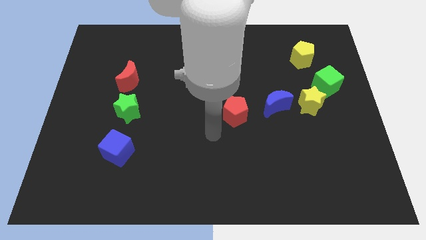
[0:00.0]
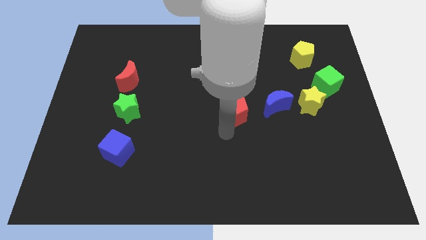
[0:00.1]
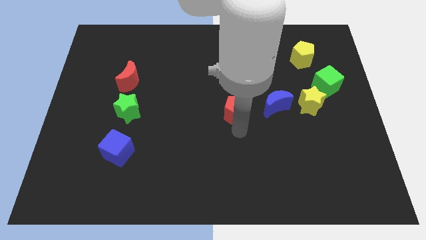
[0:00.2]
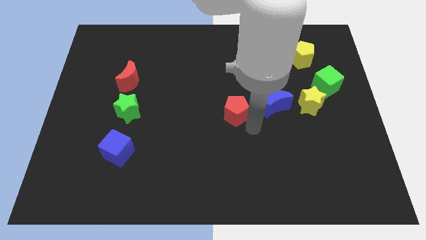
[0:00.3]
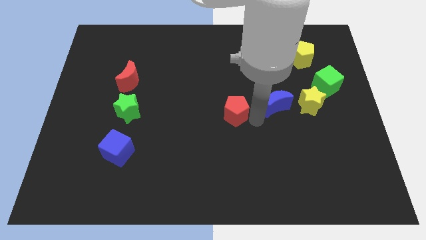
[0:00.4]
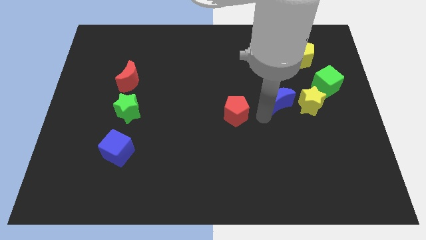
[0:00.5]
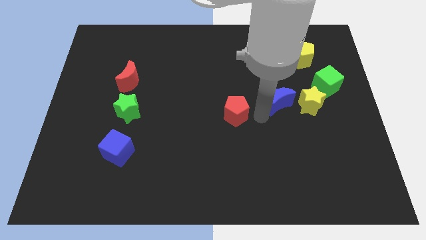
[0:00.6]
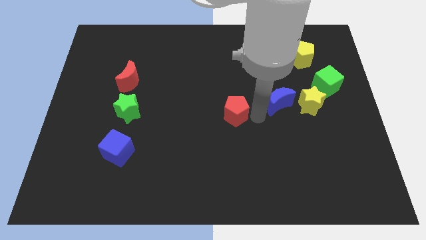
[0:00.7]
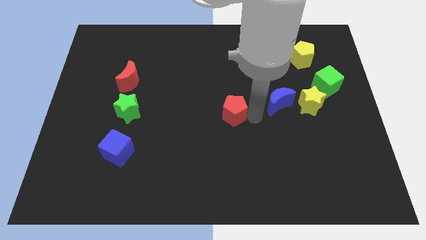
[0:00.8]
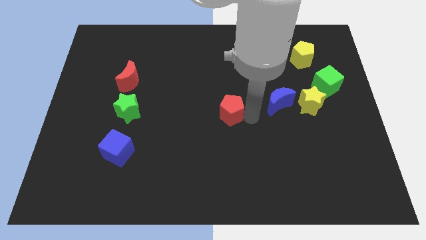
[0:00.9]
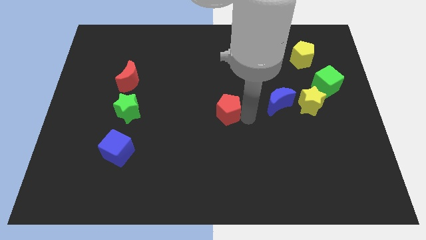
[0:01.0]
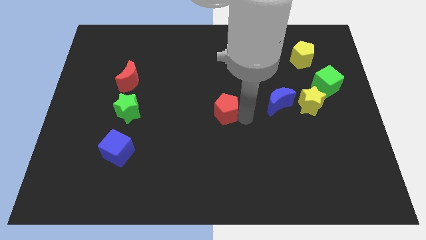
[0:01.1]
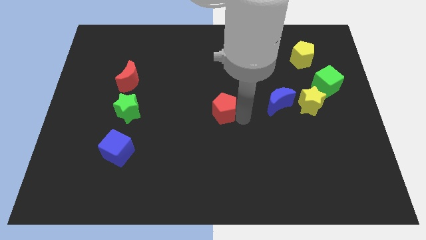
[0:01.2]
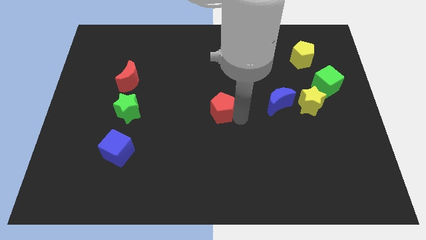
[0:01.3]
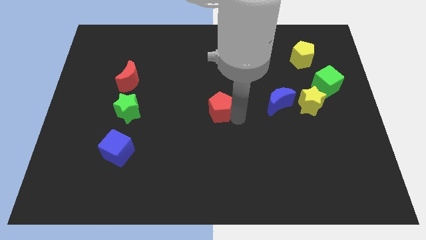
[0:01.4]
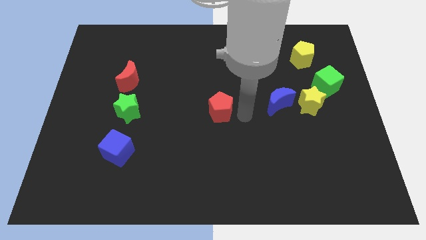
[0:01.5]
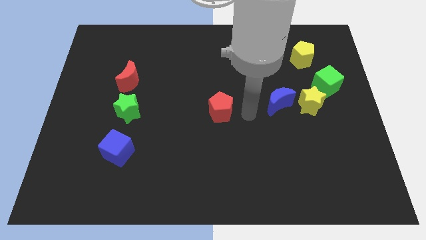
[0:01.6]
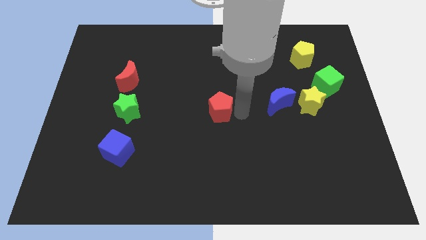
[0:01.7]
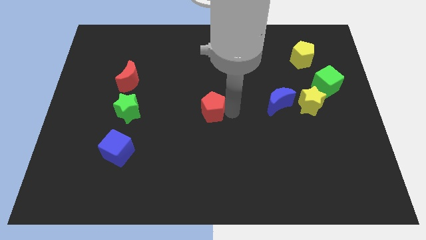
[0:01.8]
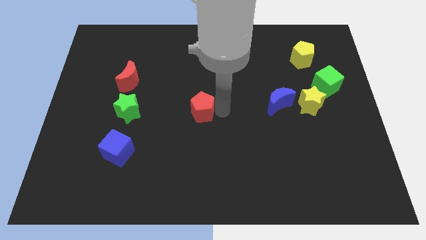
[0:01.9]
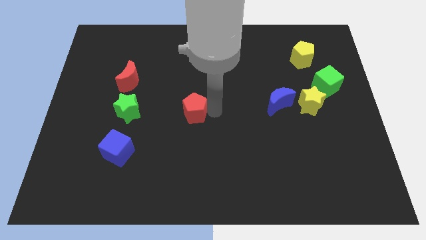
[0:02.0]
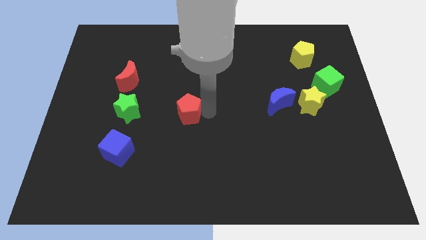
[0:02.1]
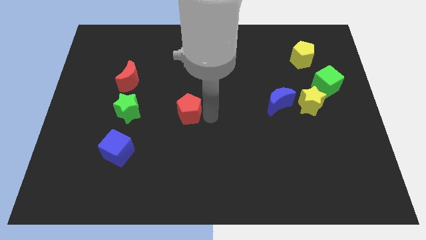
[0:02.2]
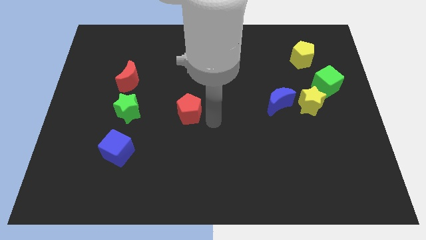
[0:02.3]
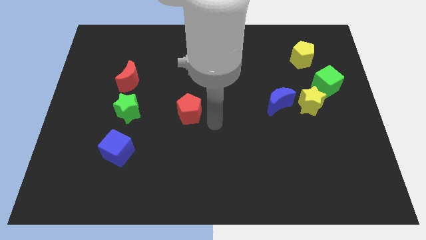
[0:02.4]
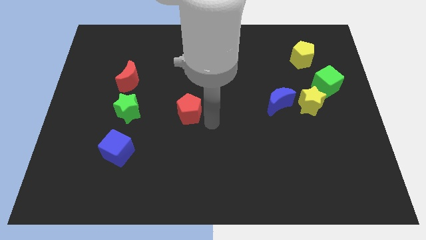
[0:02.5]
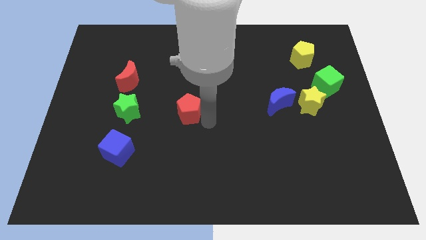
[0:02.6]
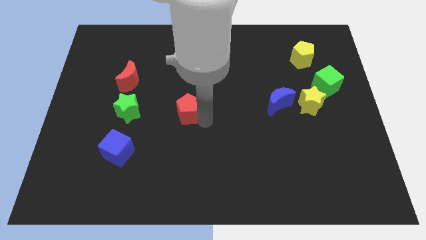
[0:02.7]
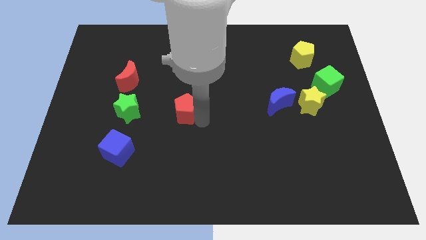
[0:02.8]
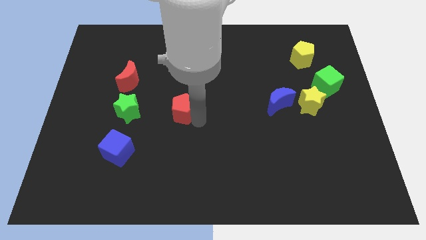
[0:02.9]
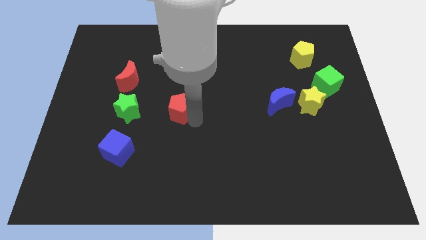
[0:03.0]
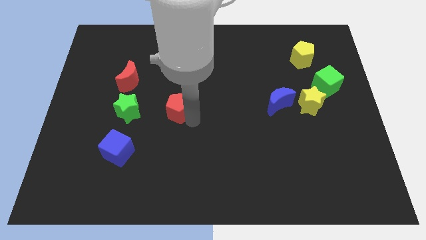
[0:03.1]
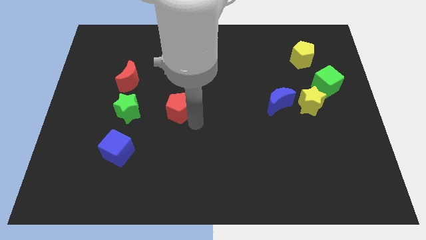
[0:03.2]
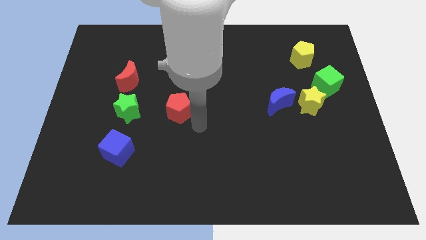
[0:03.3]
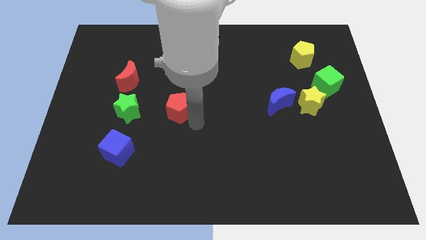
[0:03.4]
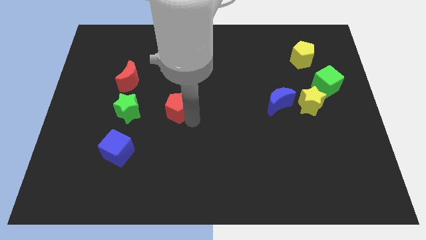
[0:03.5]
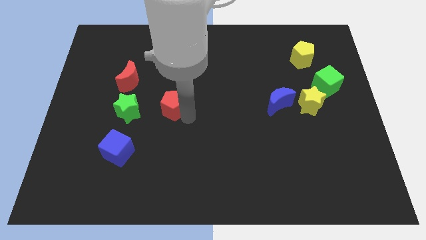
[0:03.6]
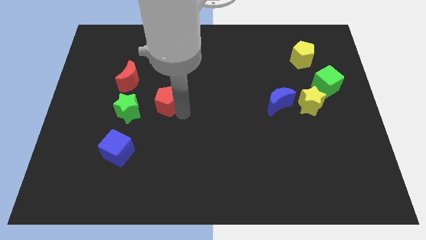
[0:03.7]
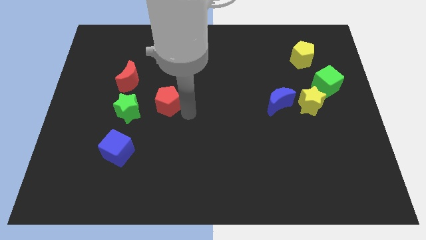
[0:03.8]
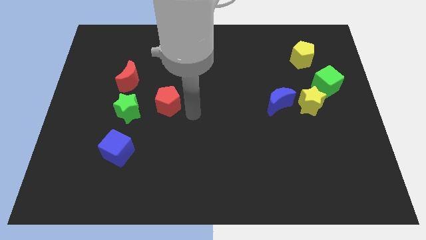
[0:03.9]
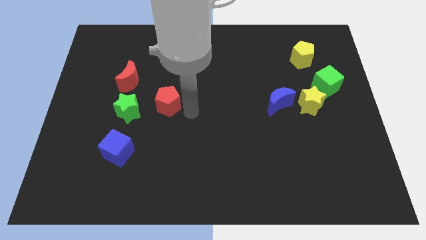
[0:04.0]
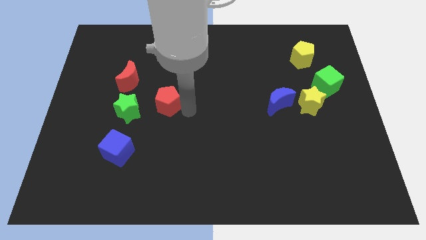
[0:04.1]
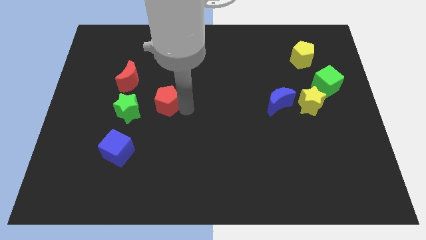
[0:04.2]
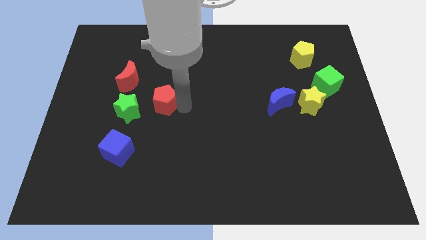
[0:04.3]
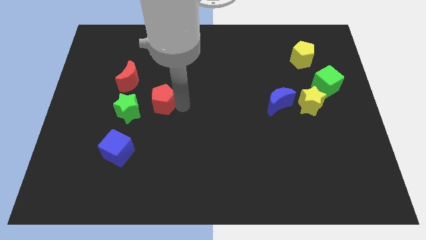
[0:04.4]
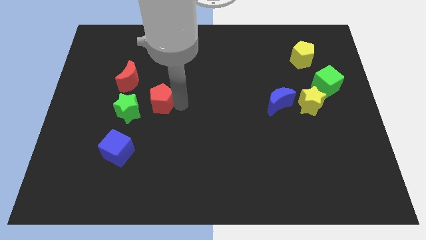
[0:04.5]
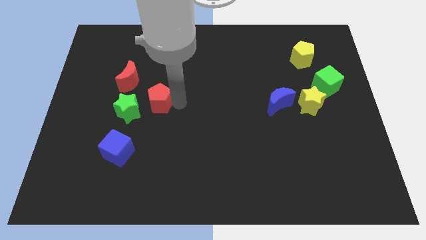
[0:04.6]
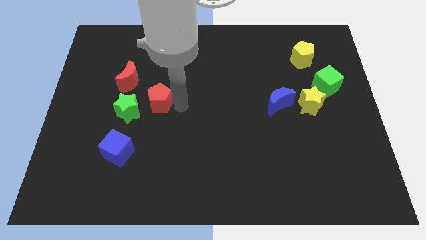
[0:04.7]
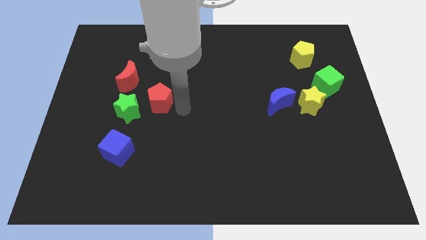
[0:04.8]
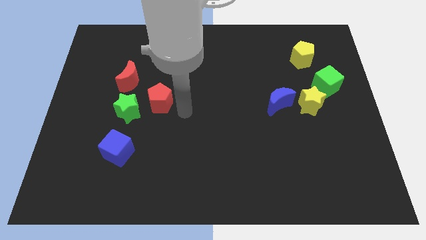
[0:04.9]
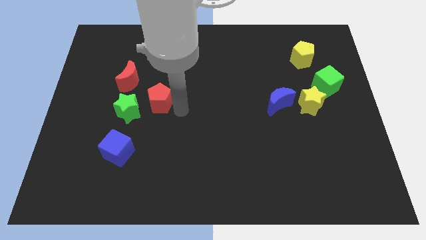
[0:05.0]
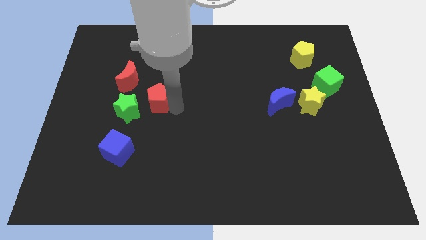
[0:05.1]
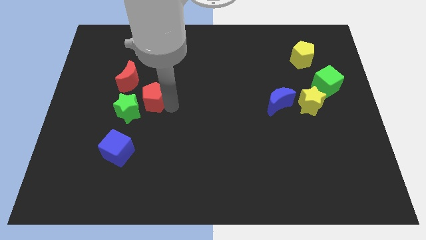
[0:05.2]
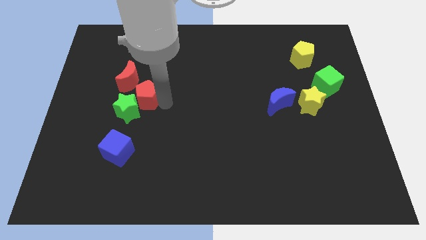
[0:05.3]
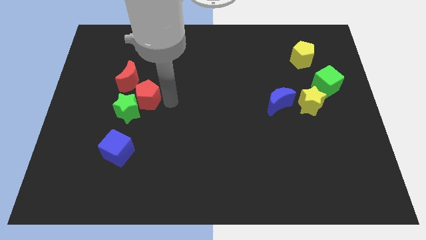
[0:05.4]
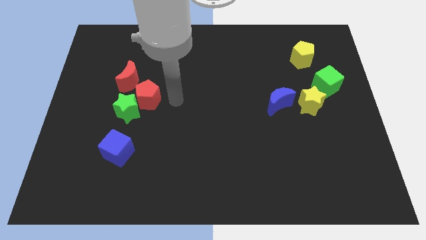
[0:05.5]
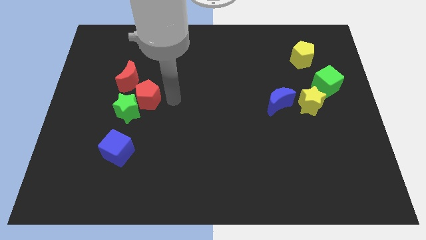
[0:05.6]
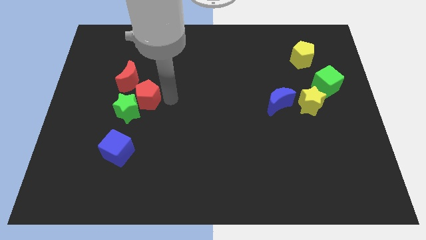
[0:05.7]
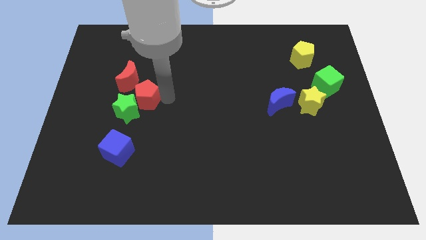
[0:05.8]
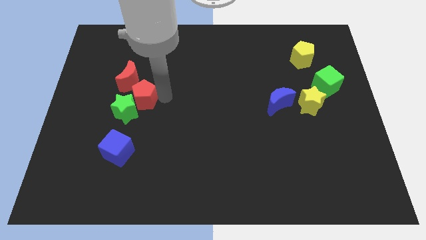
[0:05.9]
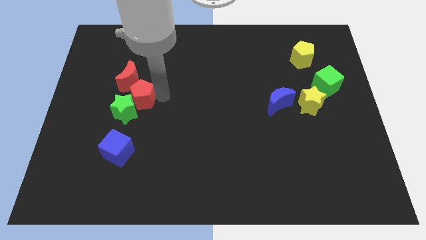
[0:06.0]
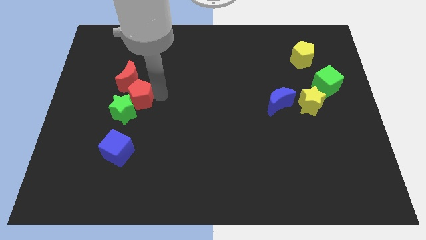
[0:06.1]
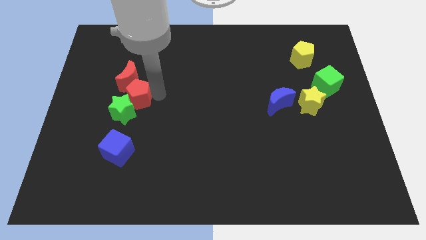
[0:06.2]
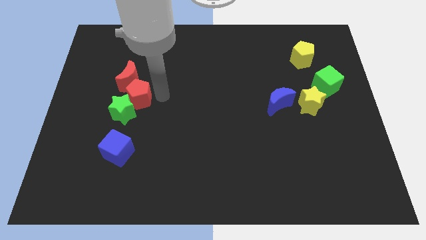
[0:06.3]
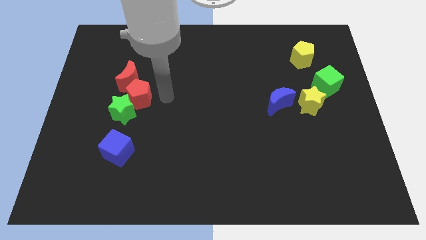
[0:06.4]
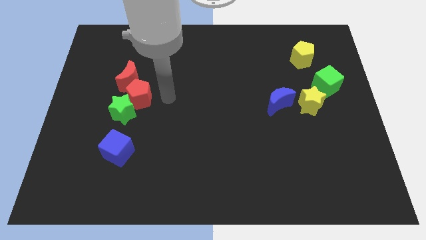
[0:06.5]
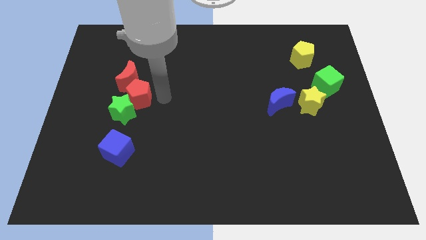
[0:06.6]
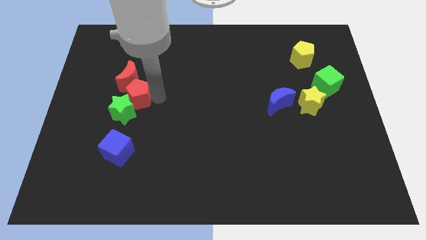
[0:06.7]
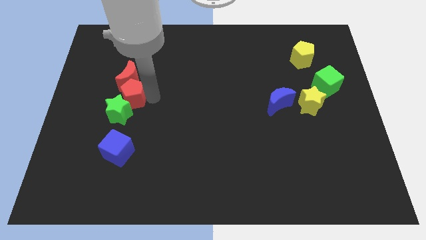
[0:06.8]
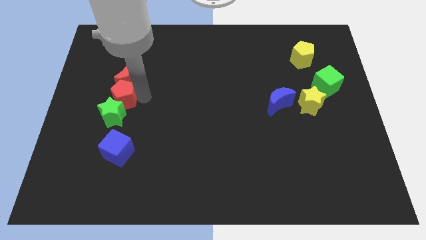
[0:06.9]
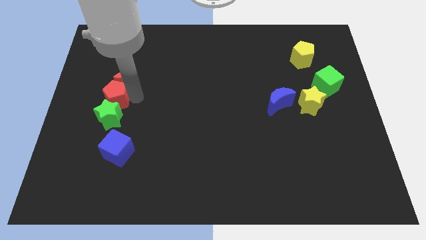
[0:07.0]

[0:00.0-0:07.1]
move the red pentagon to the top left side of the green star

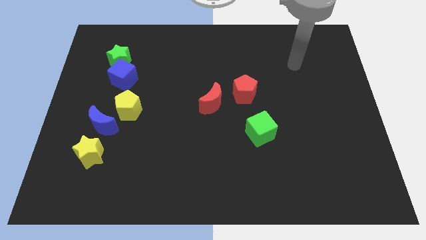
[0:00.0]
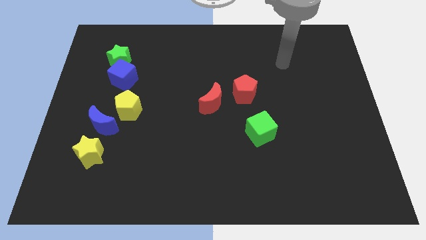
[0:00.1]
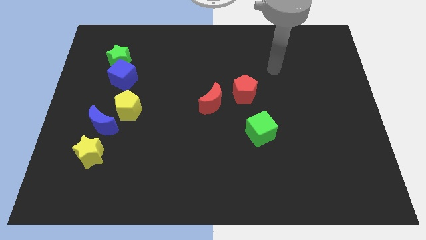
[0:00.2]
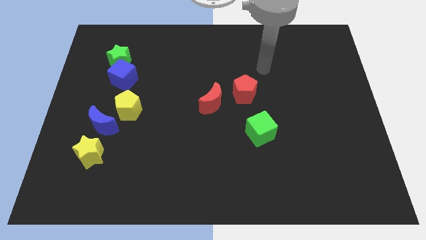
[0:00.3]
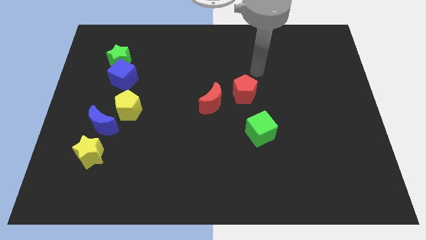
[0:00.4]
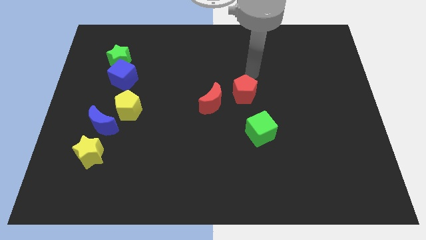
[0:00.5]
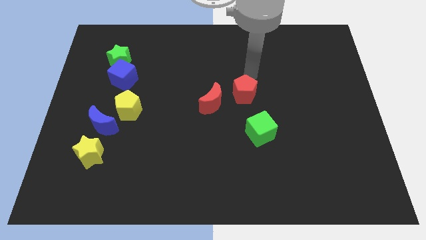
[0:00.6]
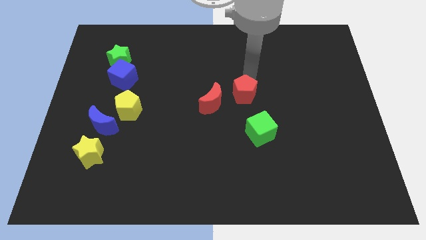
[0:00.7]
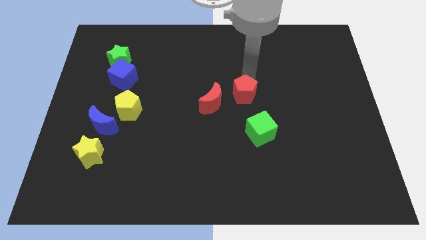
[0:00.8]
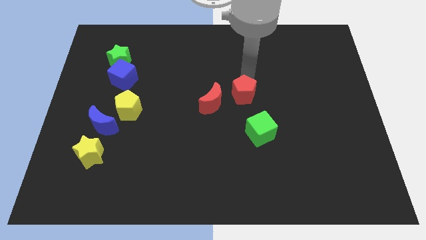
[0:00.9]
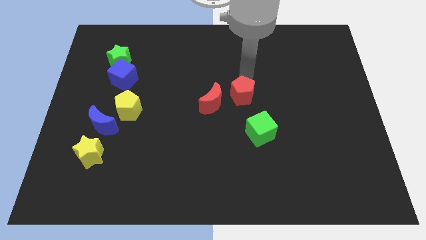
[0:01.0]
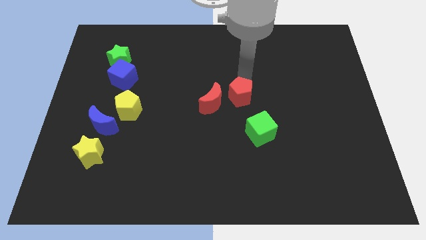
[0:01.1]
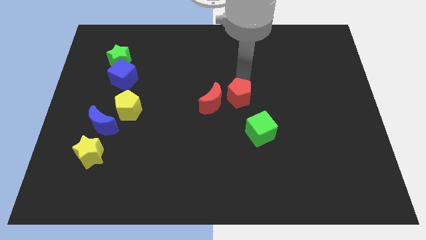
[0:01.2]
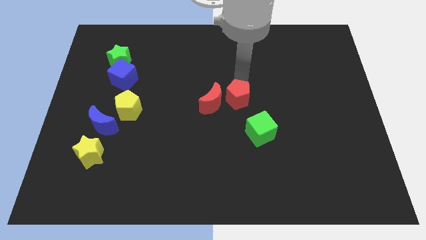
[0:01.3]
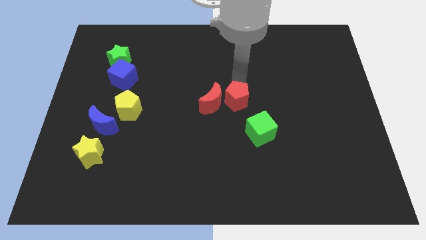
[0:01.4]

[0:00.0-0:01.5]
slide the red pentagon diagonally down and to the right of the red moon
